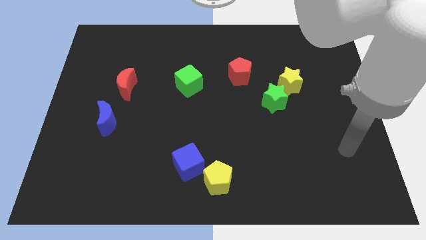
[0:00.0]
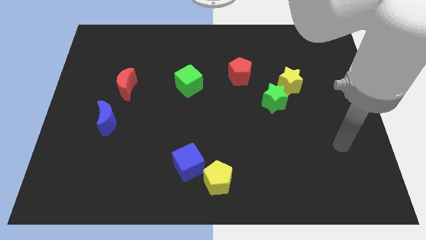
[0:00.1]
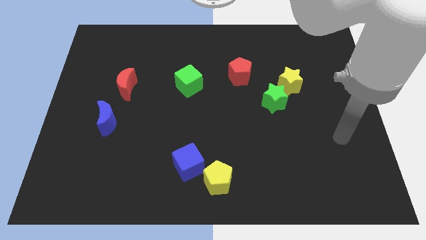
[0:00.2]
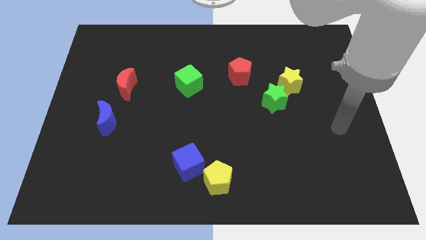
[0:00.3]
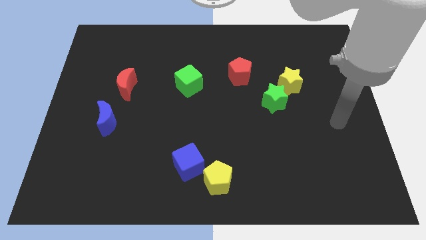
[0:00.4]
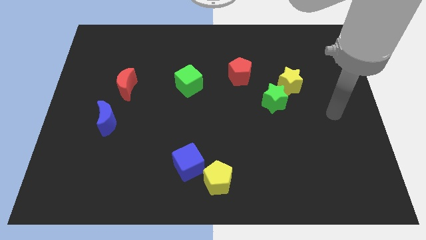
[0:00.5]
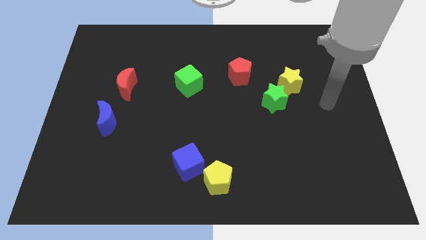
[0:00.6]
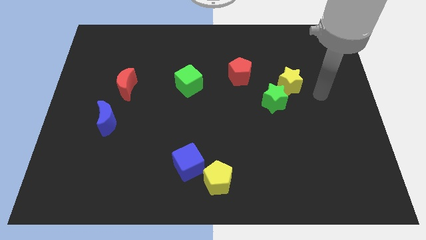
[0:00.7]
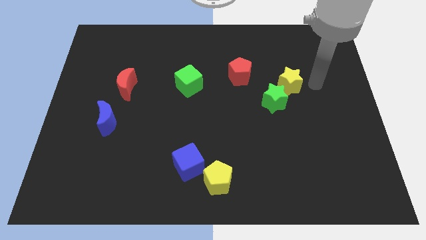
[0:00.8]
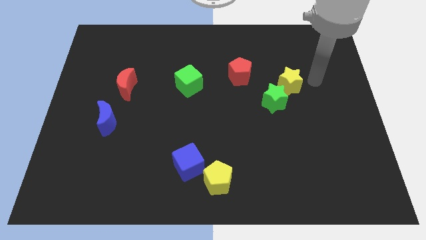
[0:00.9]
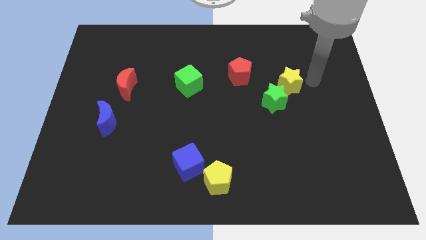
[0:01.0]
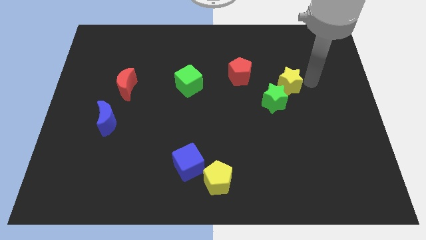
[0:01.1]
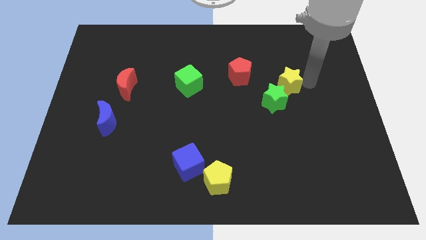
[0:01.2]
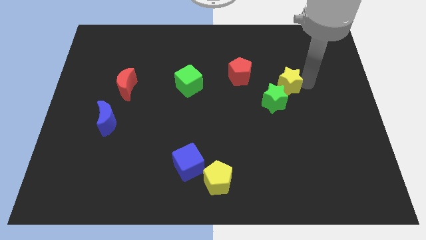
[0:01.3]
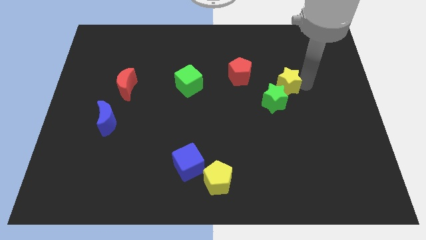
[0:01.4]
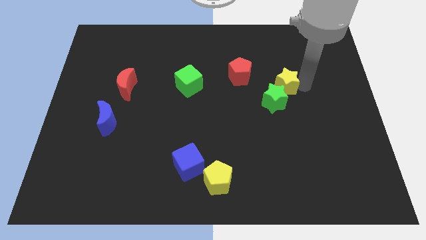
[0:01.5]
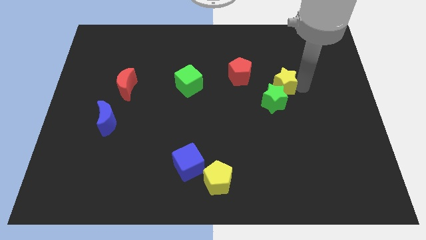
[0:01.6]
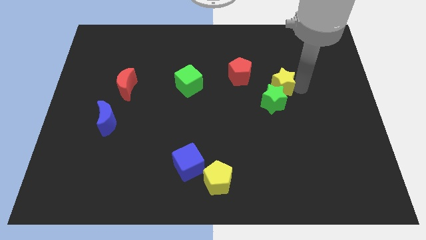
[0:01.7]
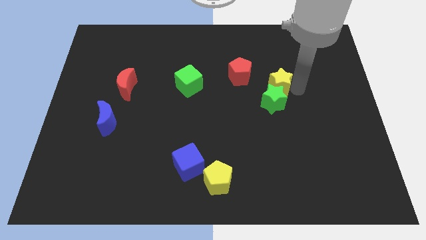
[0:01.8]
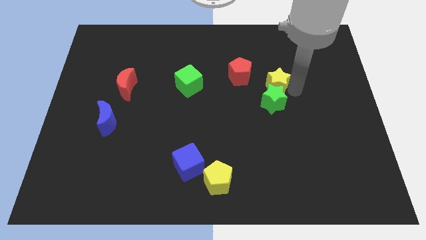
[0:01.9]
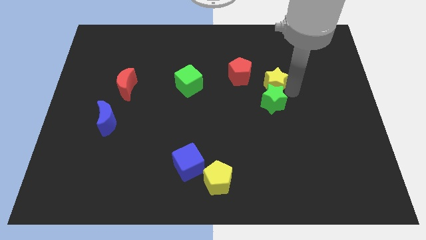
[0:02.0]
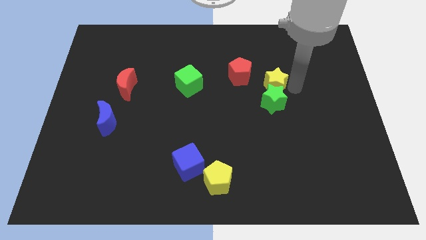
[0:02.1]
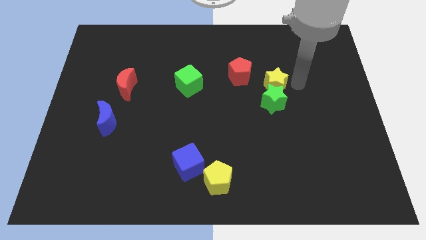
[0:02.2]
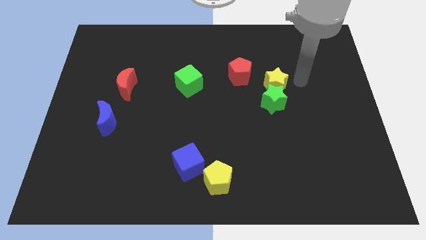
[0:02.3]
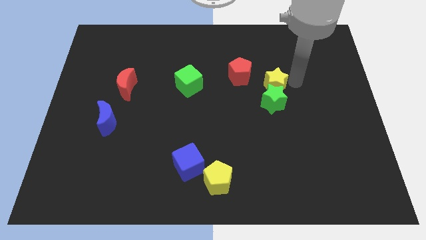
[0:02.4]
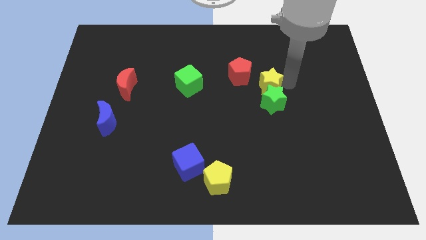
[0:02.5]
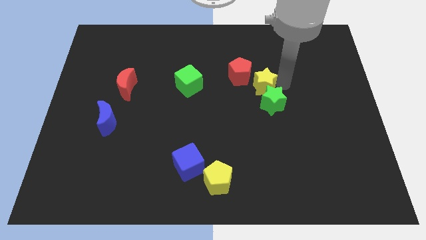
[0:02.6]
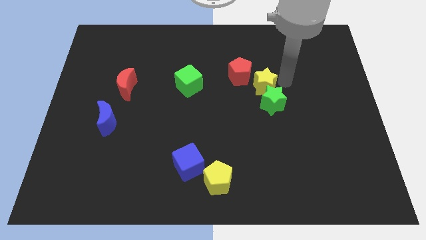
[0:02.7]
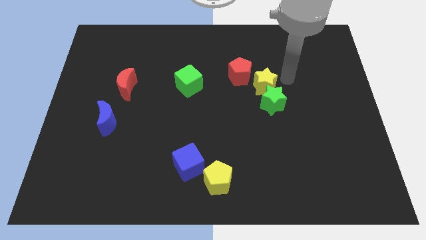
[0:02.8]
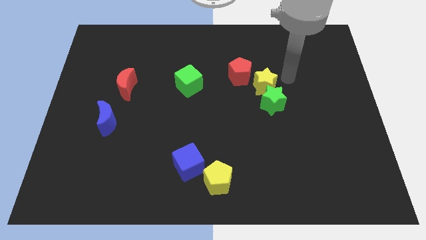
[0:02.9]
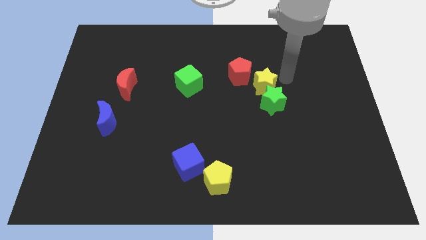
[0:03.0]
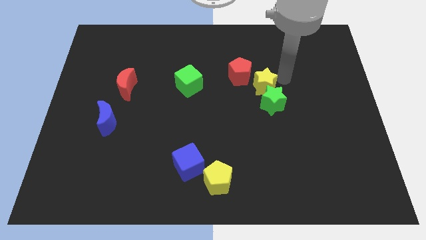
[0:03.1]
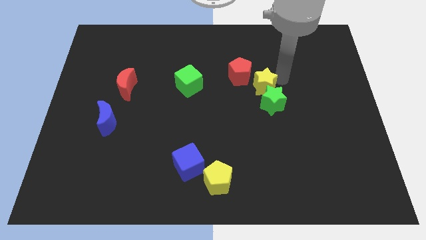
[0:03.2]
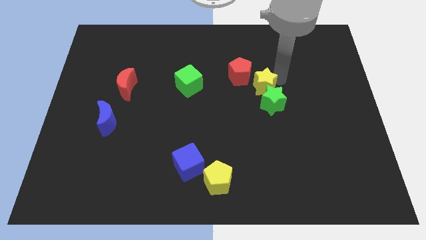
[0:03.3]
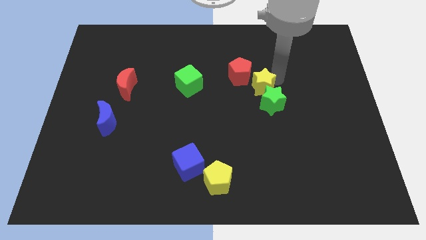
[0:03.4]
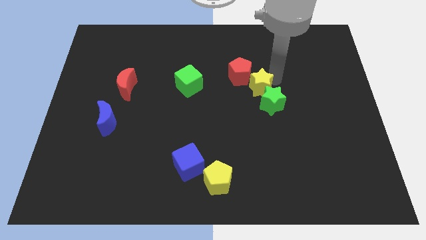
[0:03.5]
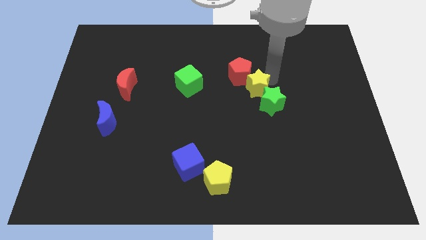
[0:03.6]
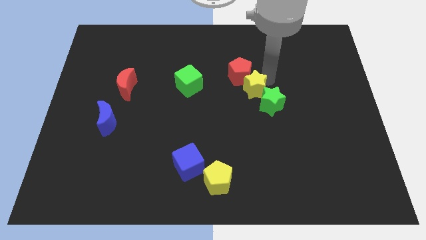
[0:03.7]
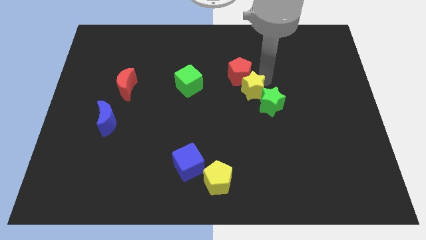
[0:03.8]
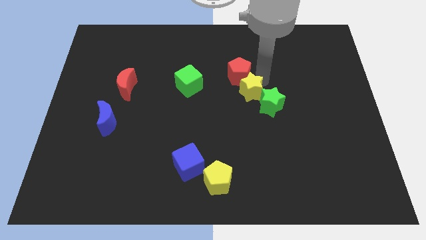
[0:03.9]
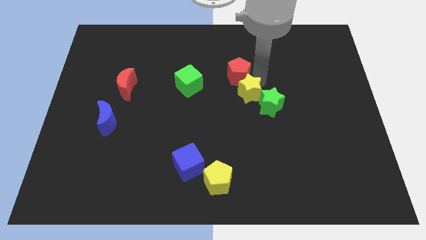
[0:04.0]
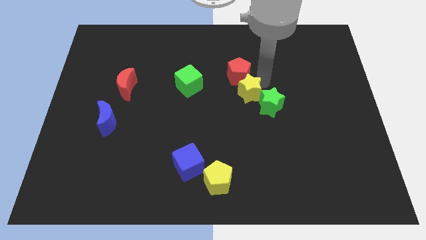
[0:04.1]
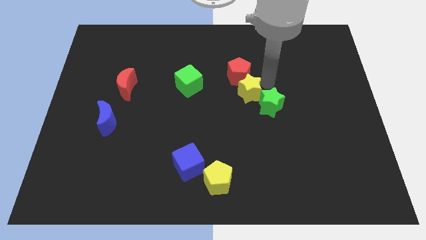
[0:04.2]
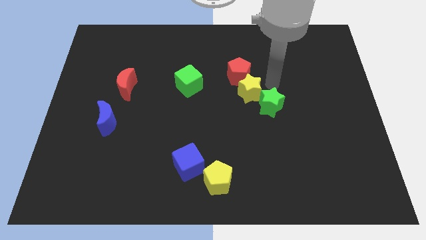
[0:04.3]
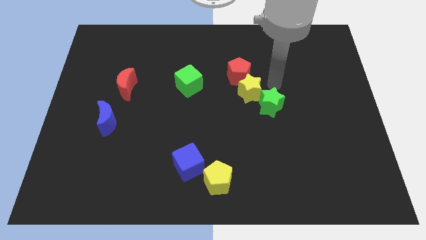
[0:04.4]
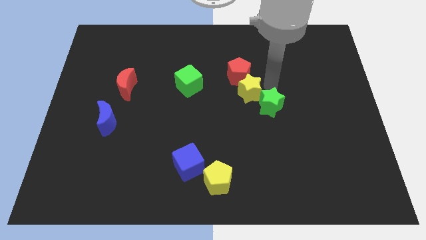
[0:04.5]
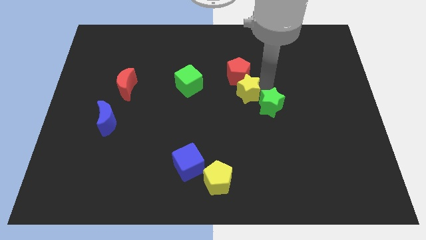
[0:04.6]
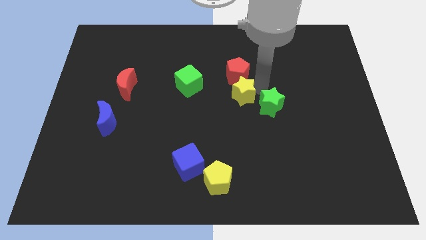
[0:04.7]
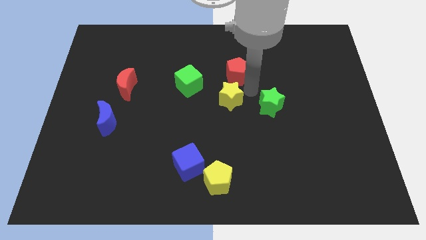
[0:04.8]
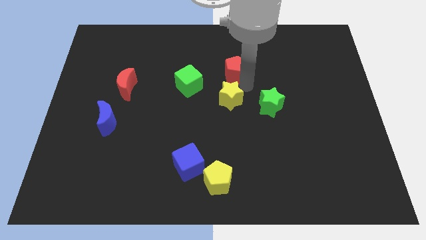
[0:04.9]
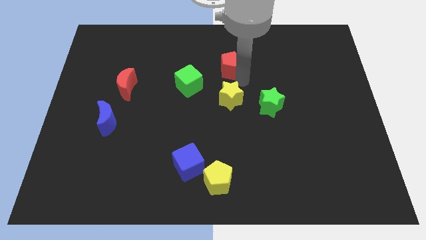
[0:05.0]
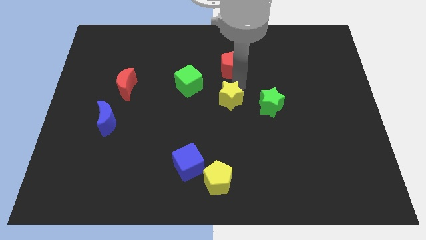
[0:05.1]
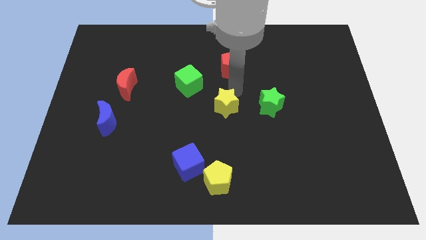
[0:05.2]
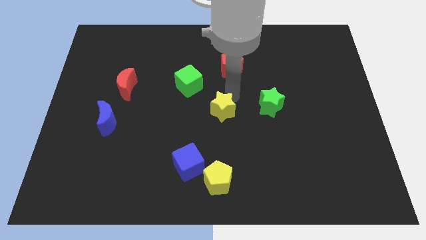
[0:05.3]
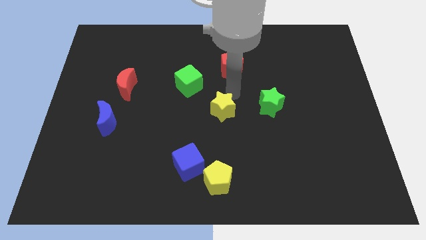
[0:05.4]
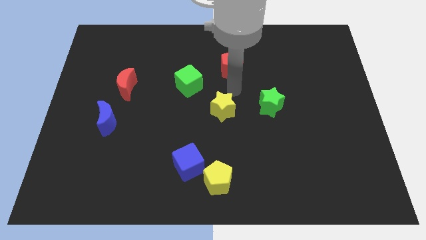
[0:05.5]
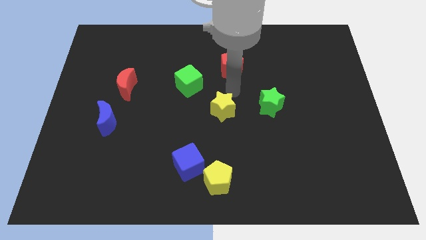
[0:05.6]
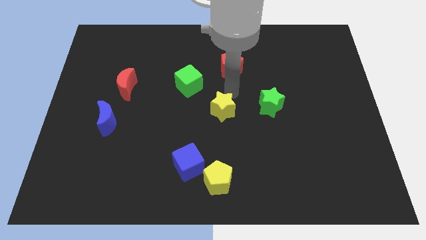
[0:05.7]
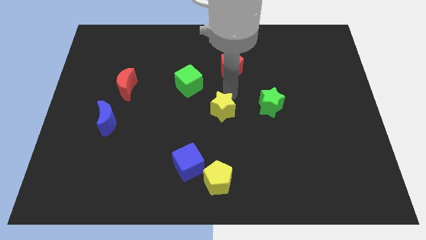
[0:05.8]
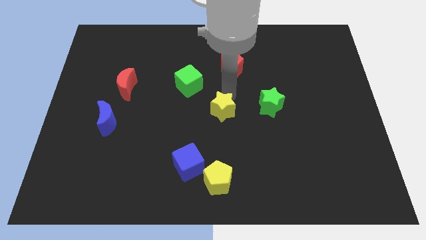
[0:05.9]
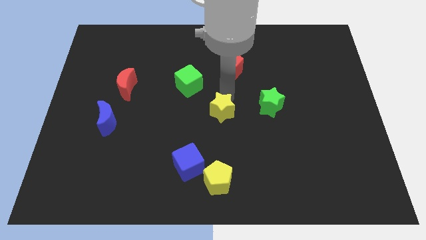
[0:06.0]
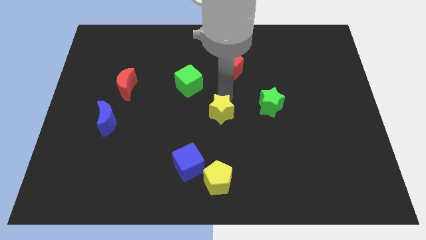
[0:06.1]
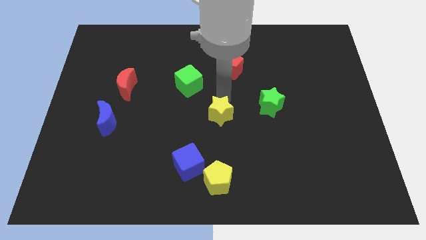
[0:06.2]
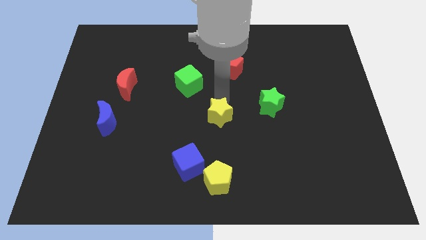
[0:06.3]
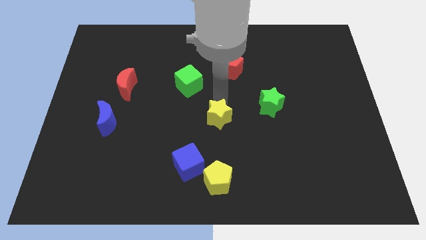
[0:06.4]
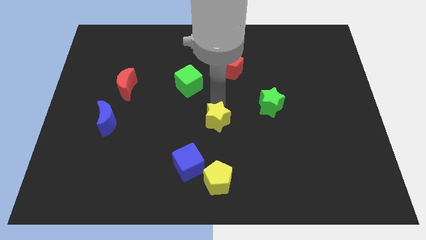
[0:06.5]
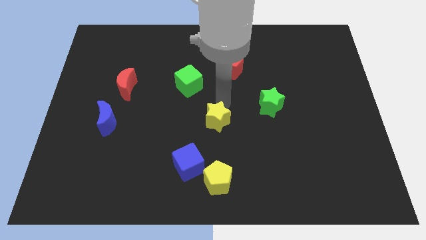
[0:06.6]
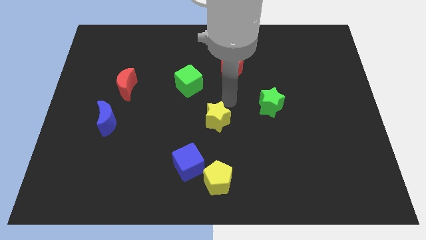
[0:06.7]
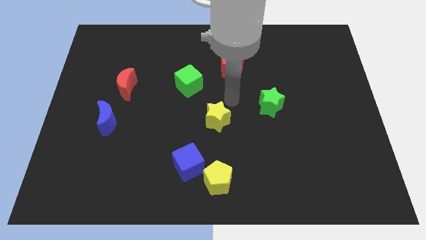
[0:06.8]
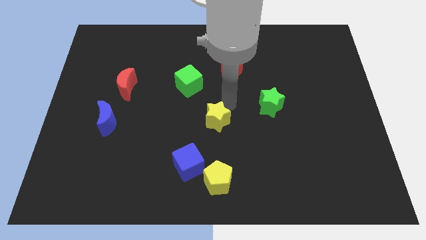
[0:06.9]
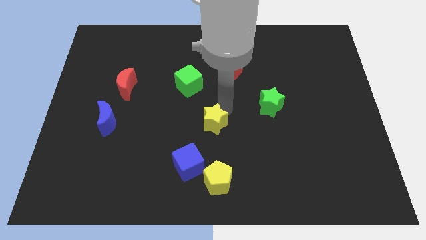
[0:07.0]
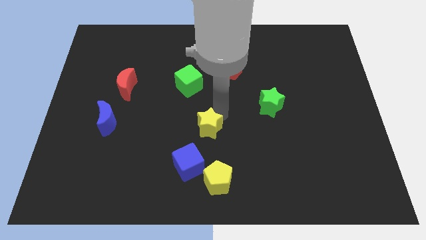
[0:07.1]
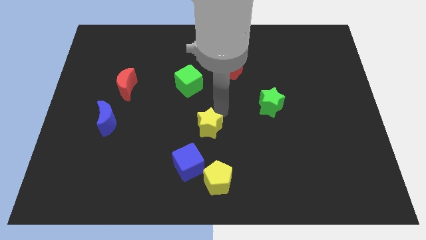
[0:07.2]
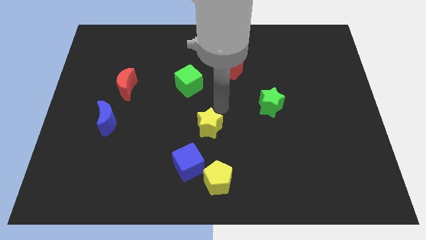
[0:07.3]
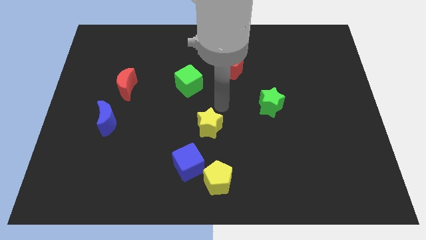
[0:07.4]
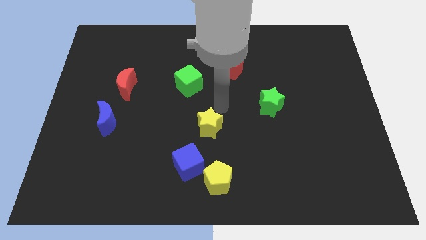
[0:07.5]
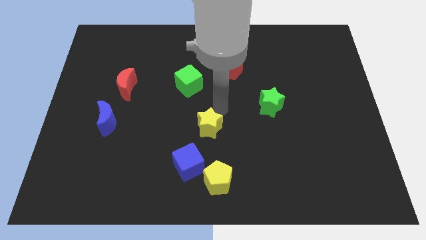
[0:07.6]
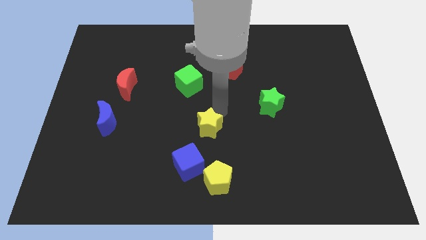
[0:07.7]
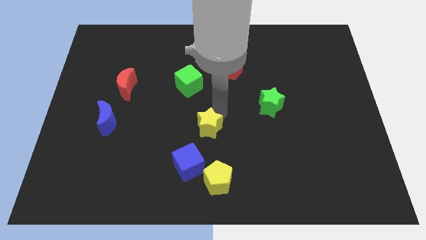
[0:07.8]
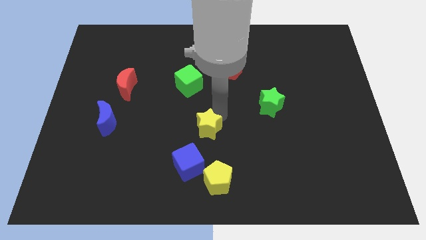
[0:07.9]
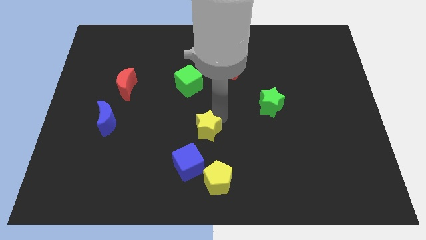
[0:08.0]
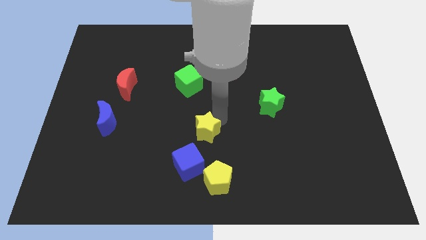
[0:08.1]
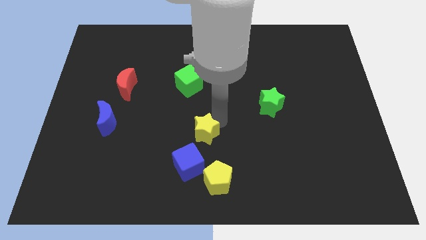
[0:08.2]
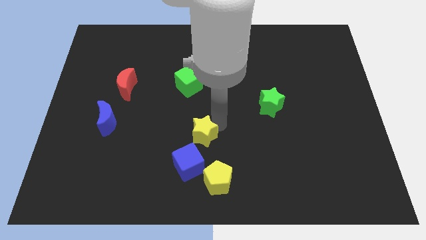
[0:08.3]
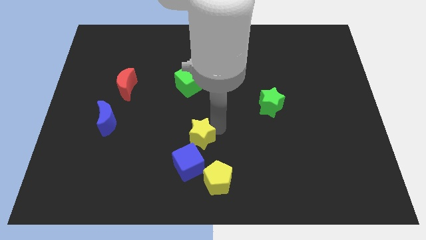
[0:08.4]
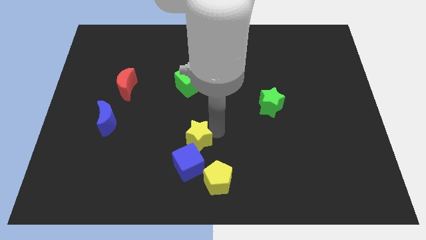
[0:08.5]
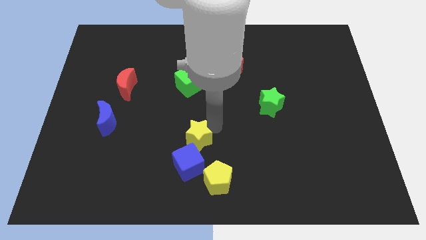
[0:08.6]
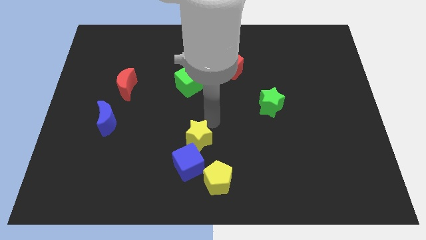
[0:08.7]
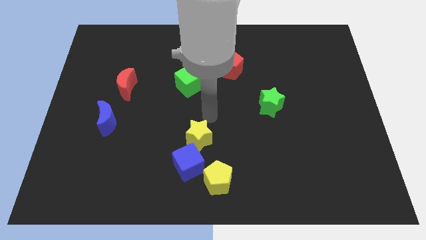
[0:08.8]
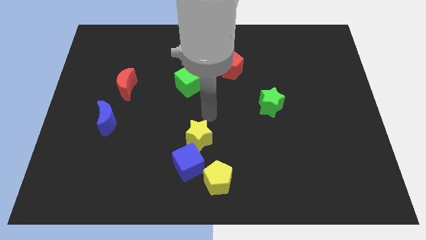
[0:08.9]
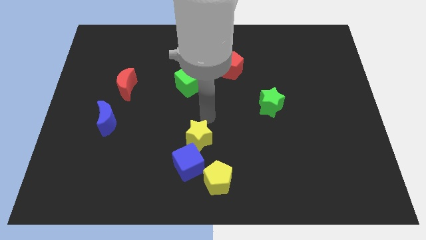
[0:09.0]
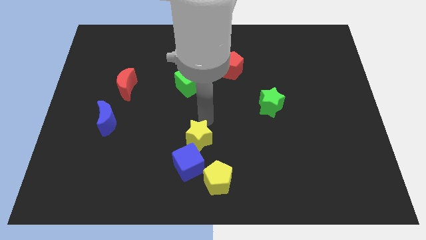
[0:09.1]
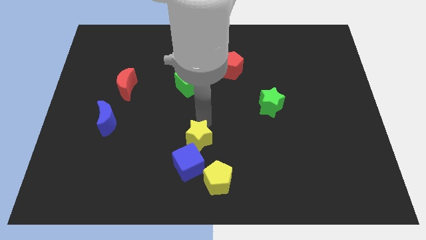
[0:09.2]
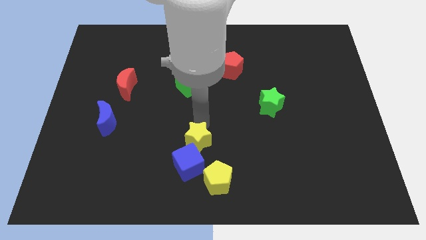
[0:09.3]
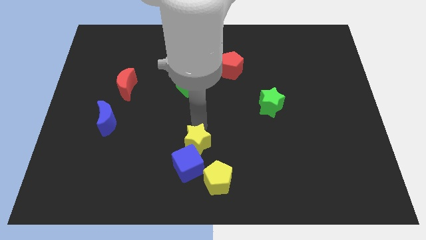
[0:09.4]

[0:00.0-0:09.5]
put the yellow star to the blue cube
